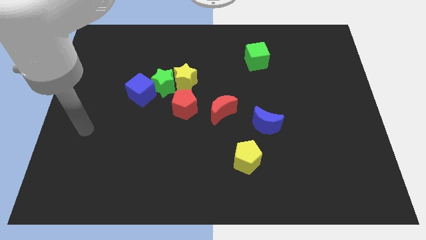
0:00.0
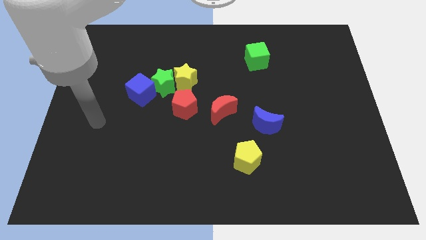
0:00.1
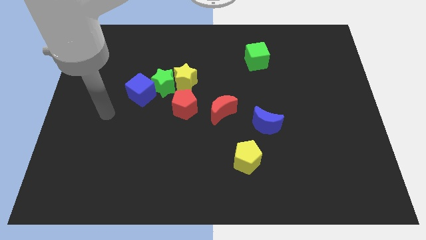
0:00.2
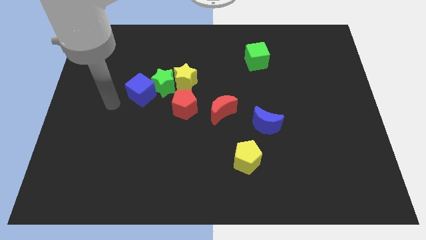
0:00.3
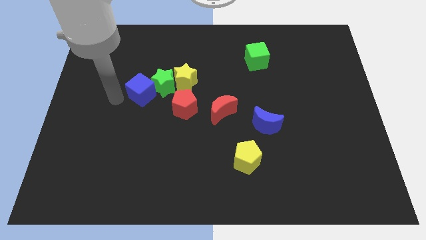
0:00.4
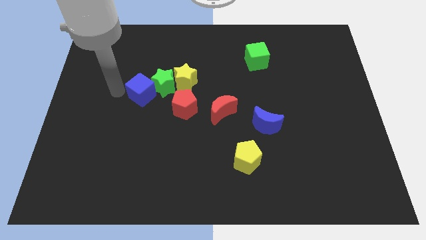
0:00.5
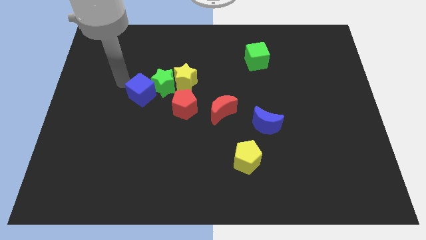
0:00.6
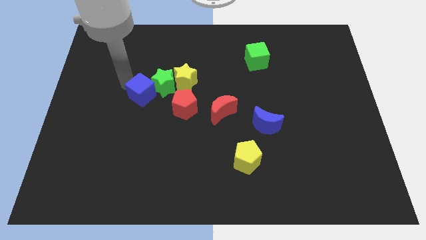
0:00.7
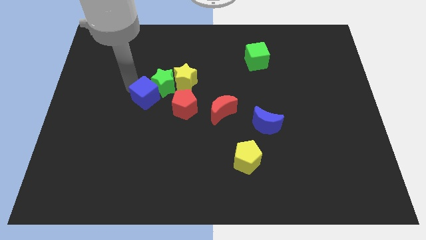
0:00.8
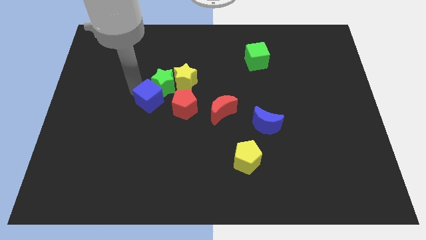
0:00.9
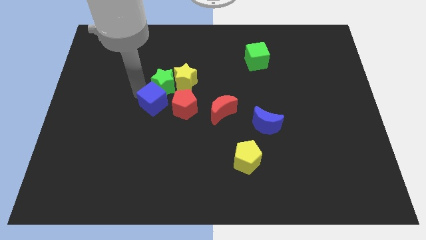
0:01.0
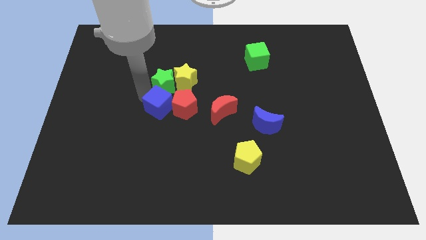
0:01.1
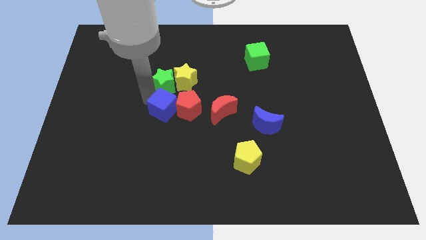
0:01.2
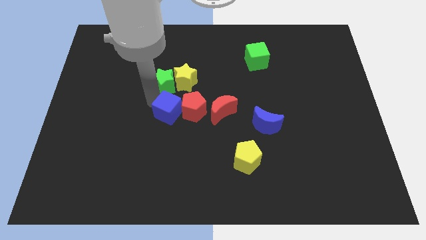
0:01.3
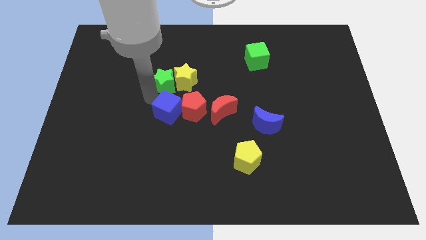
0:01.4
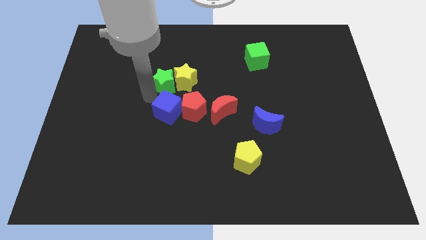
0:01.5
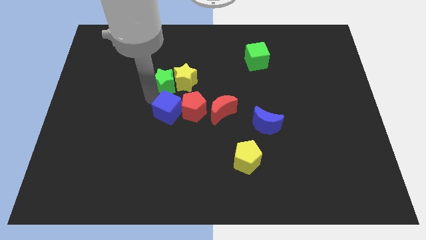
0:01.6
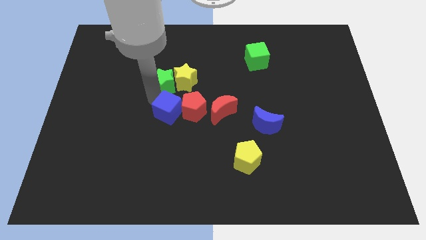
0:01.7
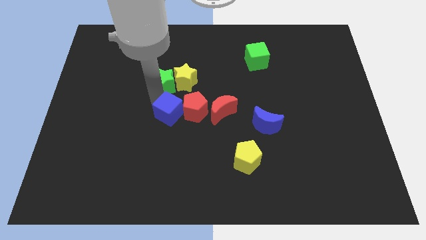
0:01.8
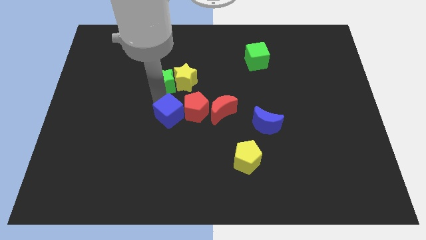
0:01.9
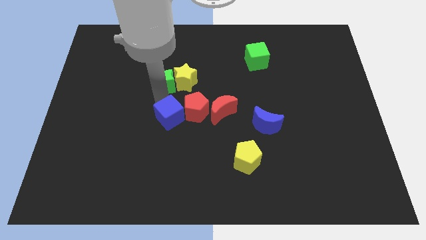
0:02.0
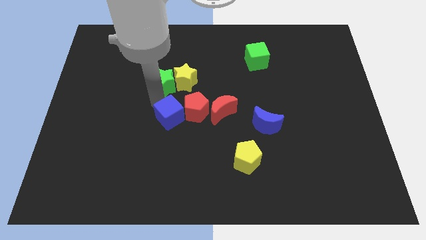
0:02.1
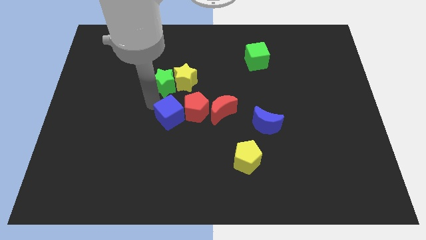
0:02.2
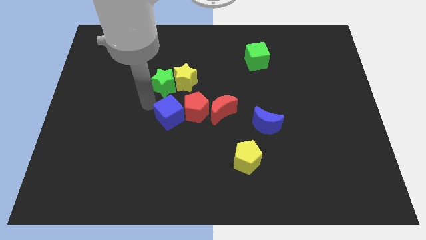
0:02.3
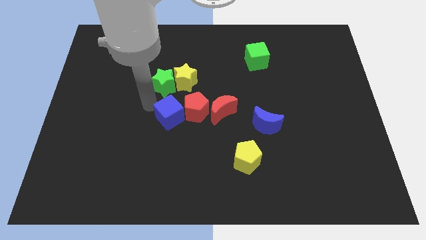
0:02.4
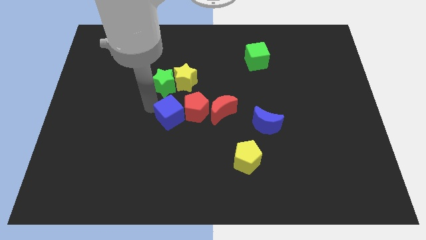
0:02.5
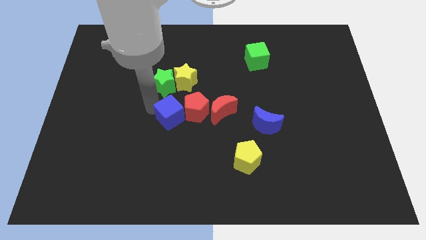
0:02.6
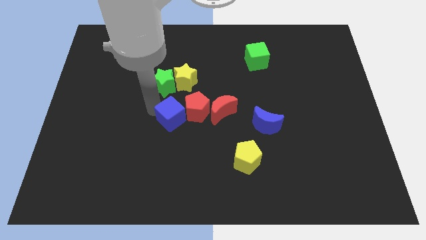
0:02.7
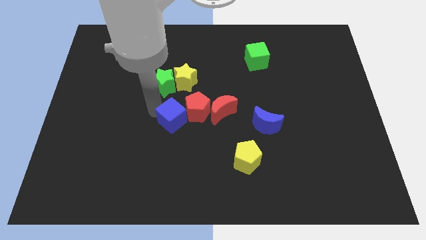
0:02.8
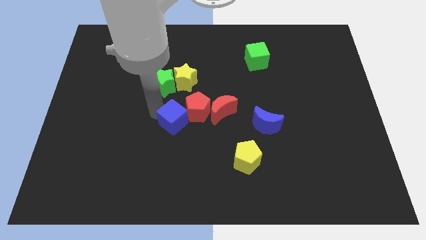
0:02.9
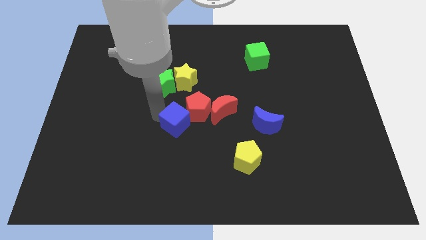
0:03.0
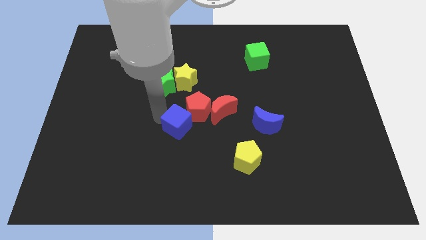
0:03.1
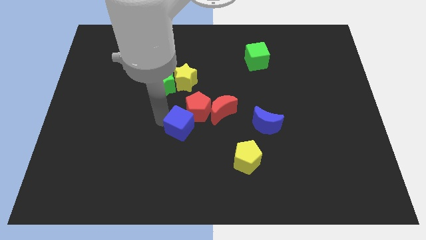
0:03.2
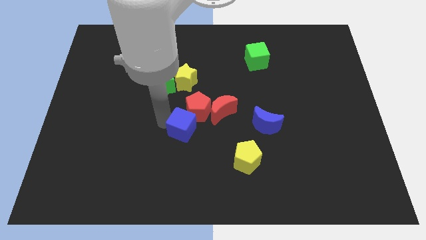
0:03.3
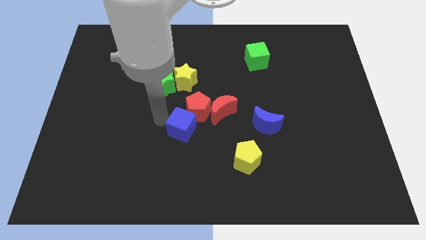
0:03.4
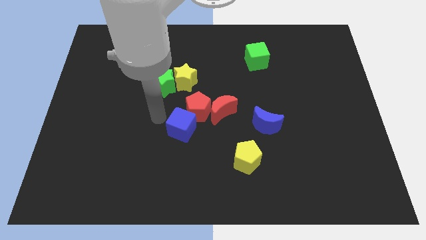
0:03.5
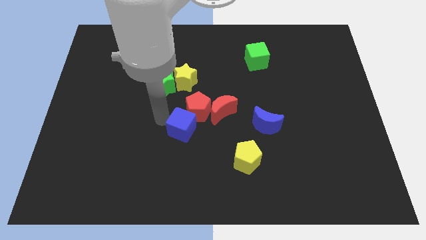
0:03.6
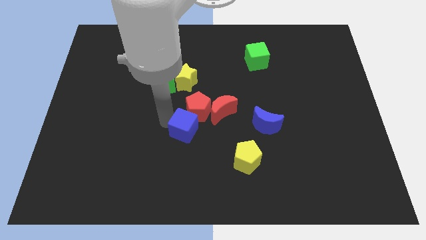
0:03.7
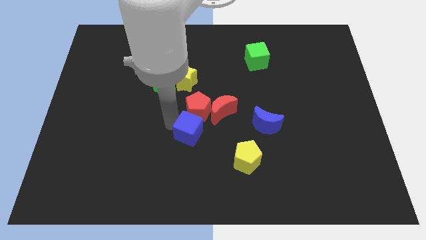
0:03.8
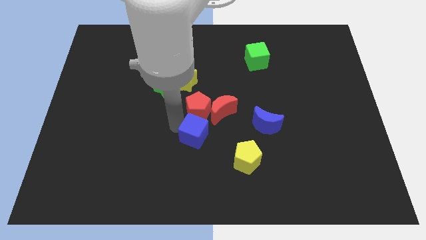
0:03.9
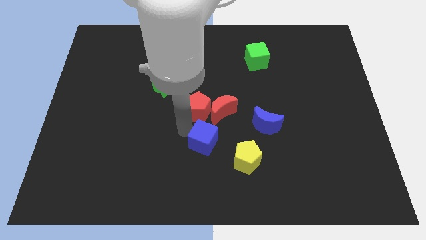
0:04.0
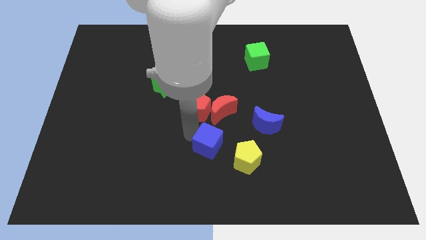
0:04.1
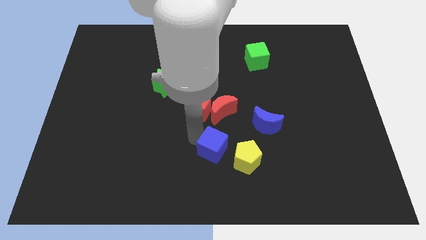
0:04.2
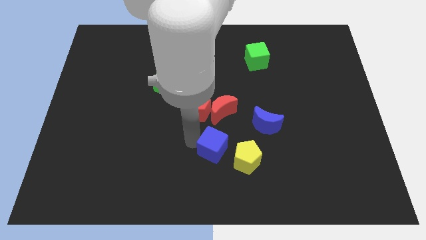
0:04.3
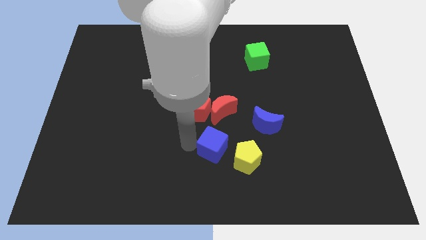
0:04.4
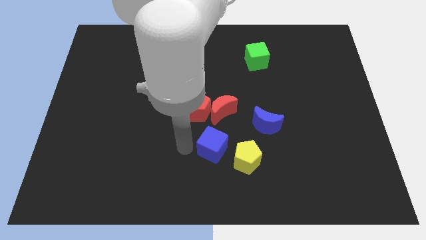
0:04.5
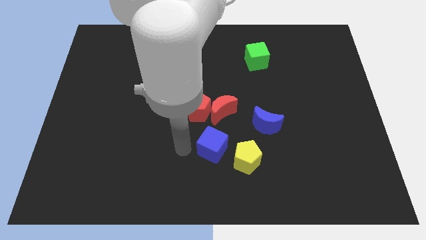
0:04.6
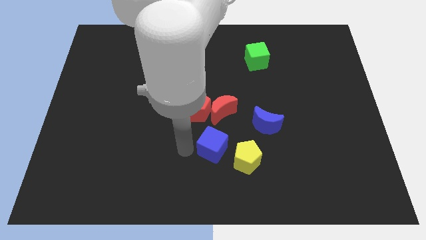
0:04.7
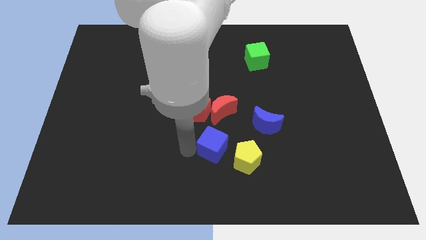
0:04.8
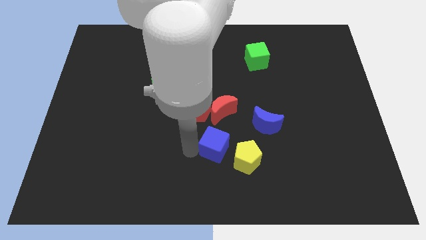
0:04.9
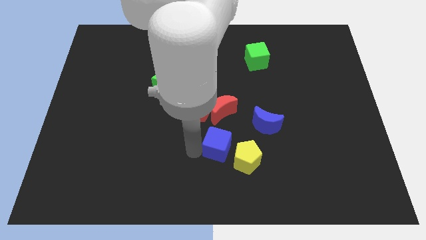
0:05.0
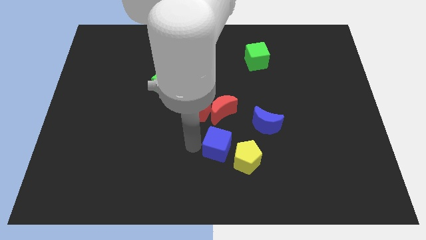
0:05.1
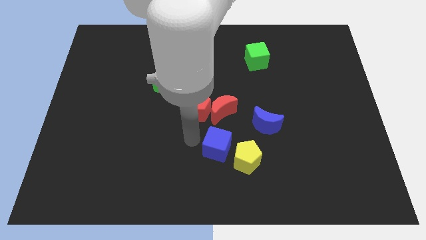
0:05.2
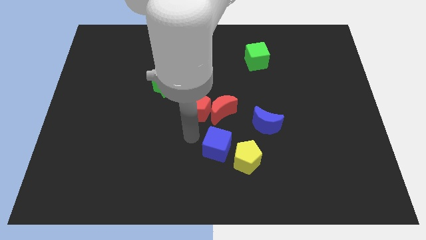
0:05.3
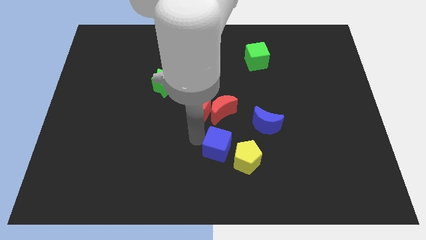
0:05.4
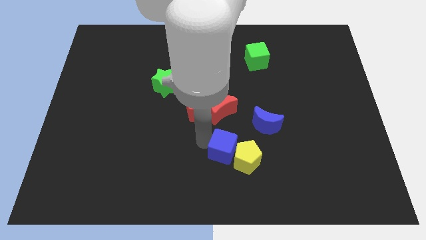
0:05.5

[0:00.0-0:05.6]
put the blue cube towards the yellow pentagon

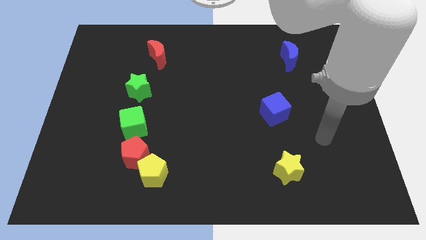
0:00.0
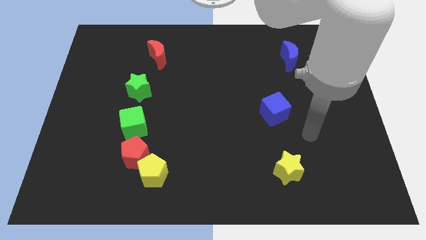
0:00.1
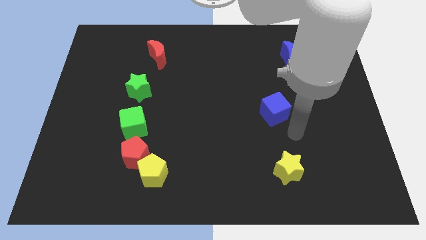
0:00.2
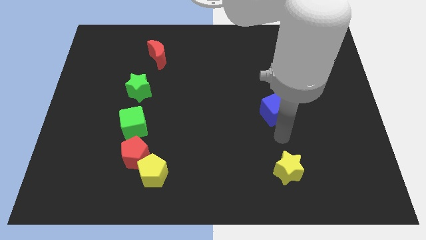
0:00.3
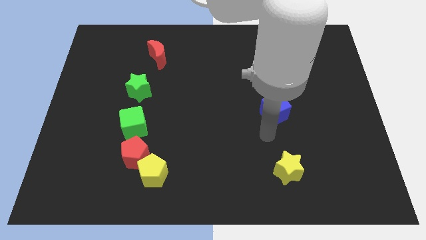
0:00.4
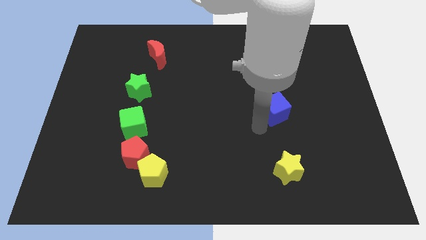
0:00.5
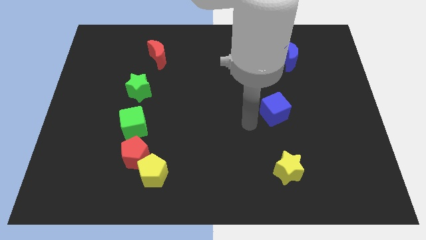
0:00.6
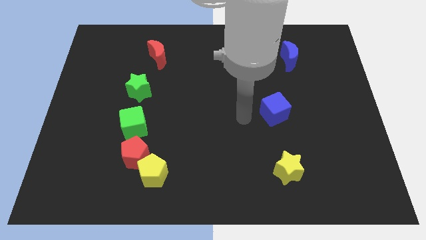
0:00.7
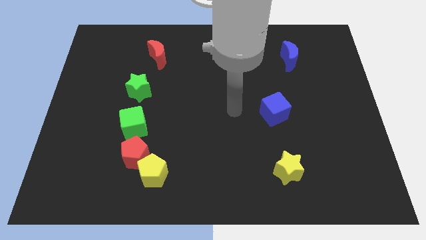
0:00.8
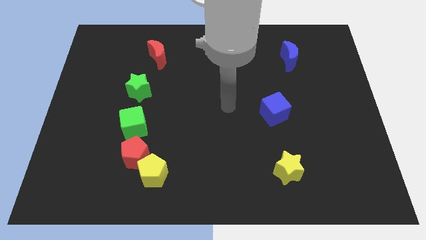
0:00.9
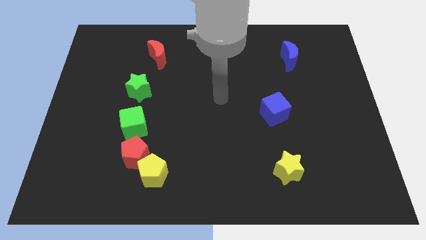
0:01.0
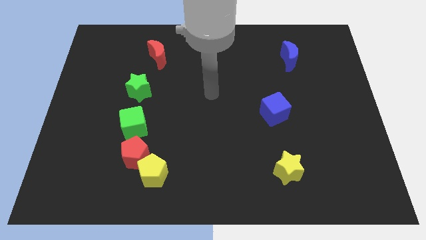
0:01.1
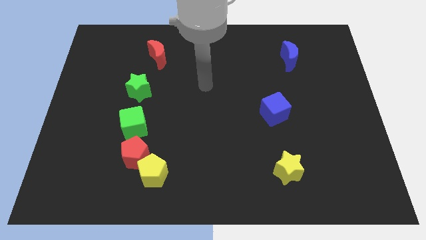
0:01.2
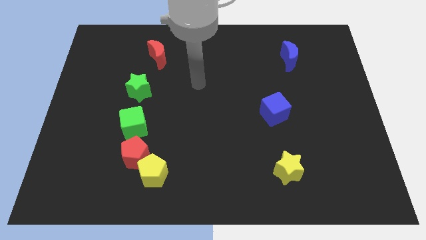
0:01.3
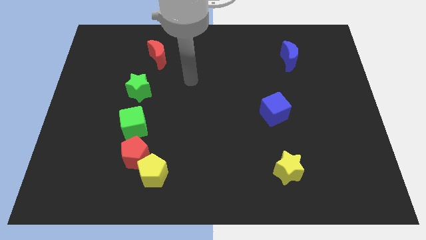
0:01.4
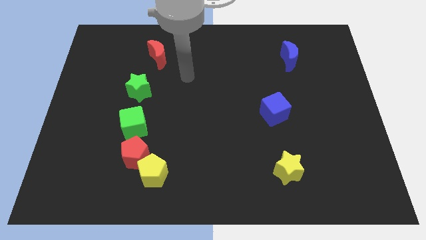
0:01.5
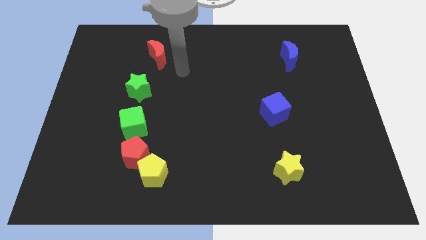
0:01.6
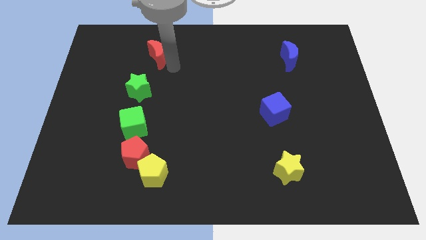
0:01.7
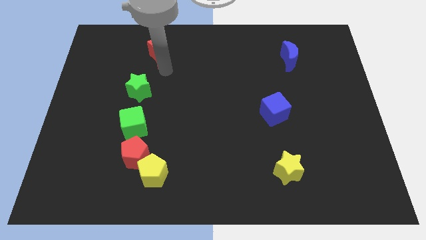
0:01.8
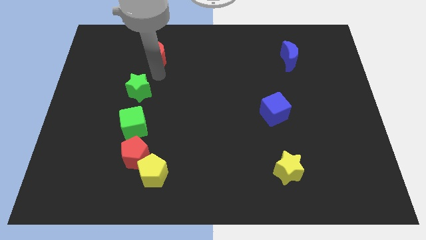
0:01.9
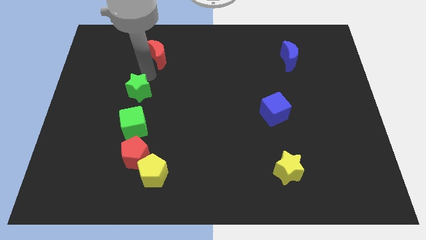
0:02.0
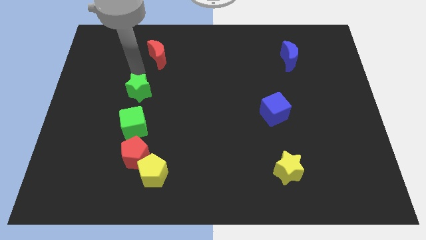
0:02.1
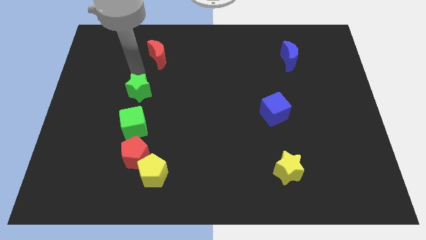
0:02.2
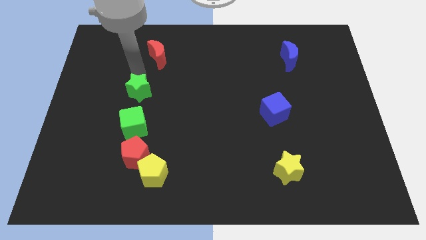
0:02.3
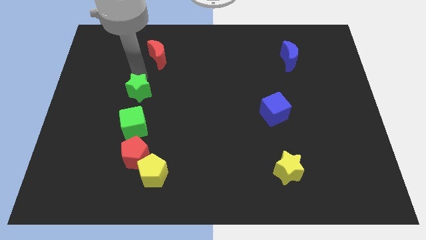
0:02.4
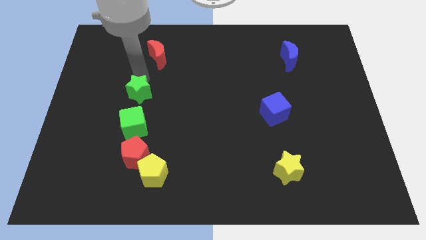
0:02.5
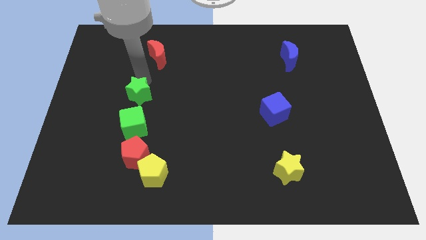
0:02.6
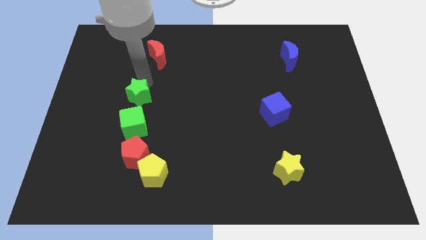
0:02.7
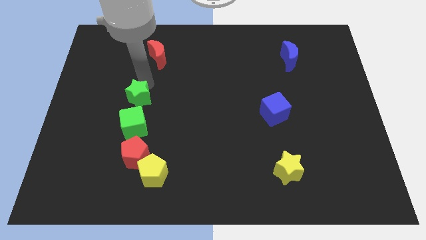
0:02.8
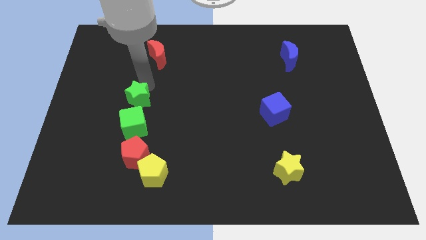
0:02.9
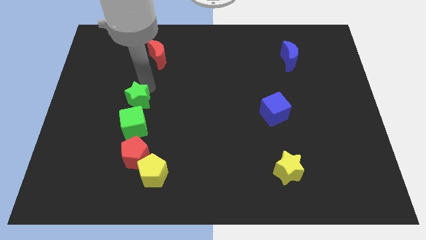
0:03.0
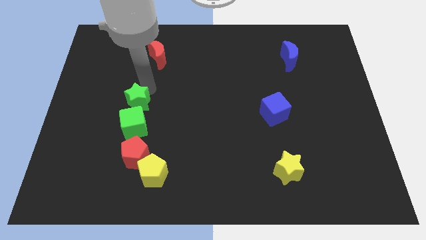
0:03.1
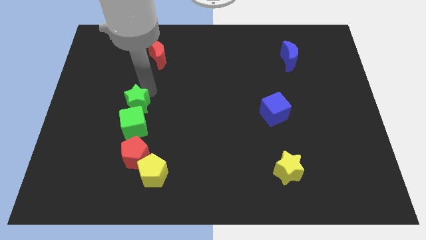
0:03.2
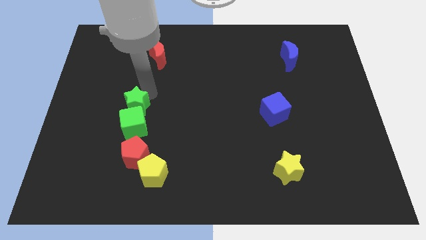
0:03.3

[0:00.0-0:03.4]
push the green star to the green cube
